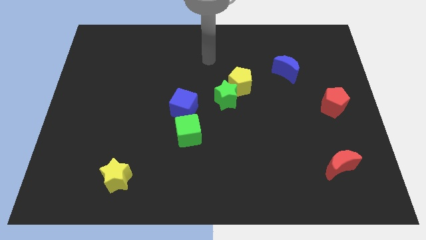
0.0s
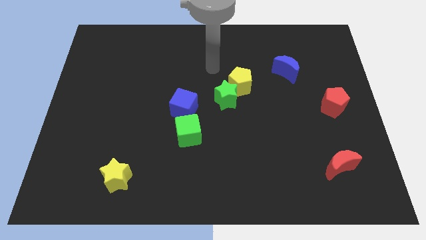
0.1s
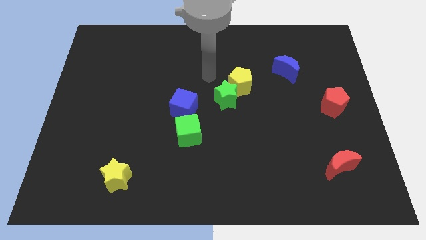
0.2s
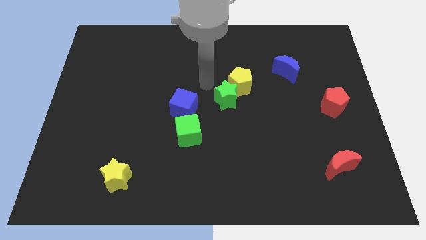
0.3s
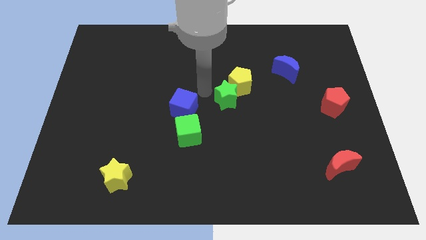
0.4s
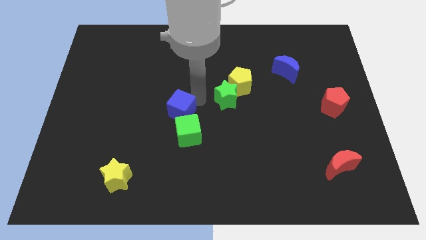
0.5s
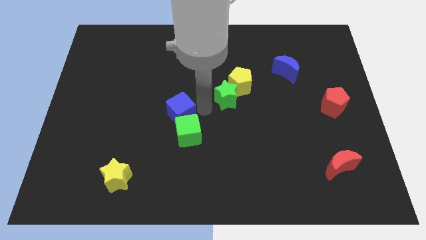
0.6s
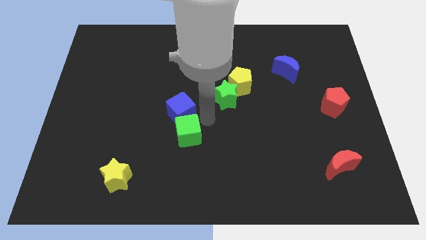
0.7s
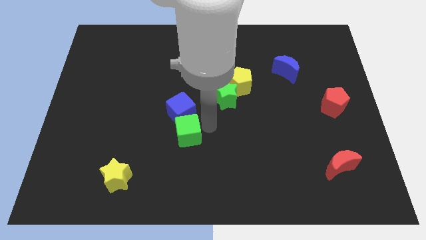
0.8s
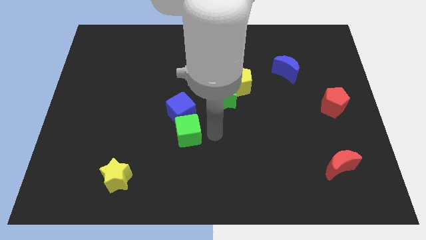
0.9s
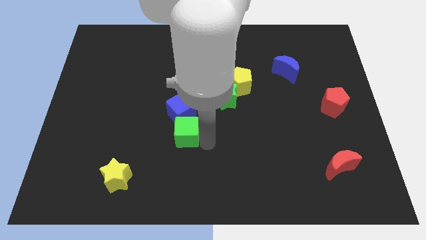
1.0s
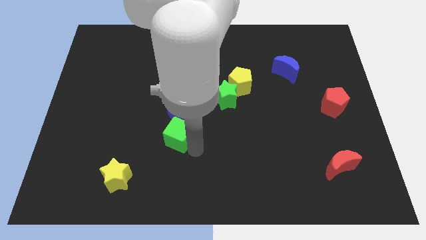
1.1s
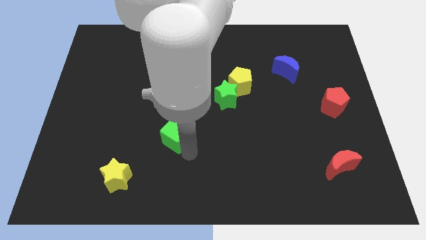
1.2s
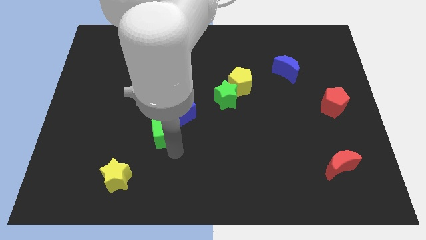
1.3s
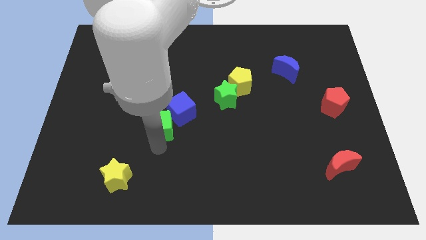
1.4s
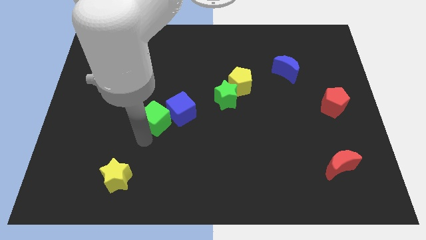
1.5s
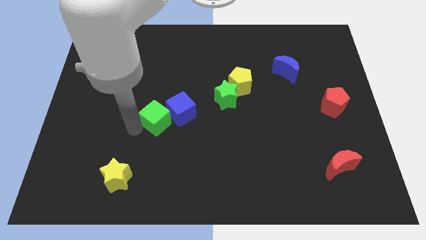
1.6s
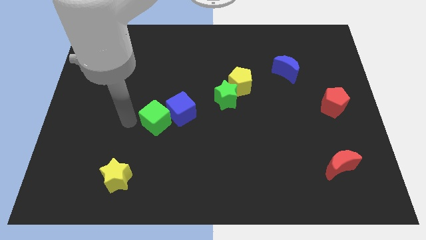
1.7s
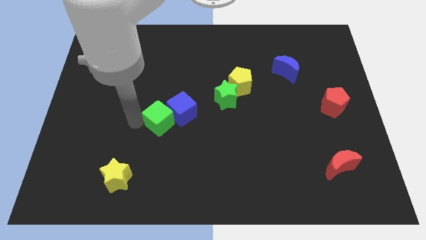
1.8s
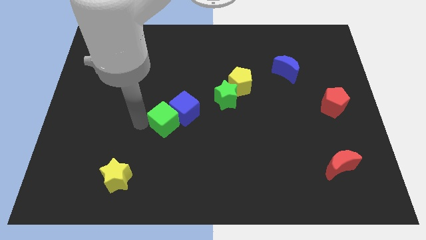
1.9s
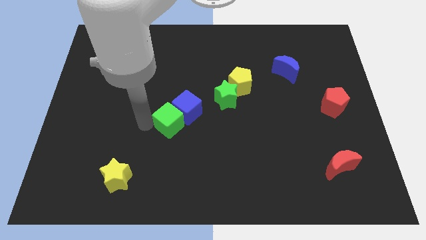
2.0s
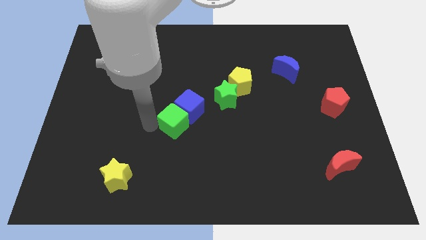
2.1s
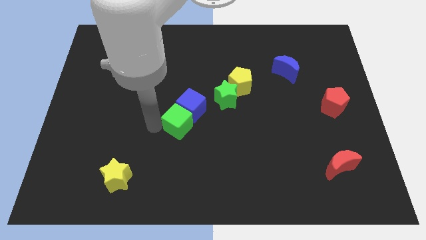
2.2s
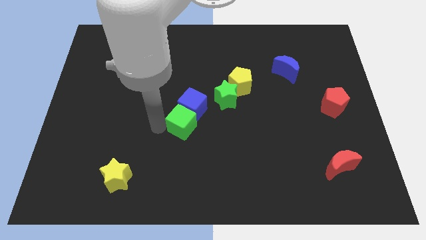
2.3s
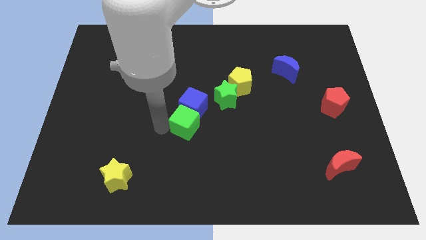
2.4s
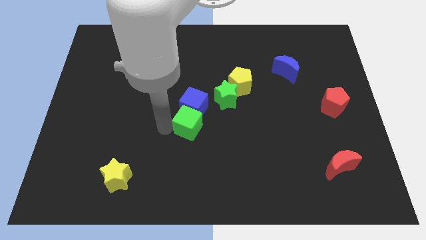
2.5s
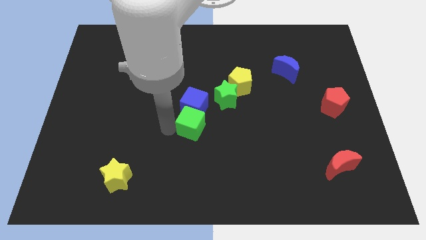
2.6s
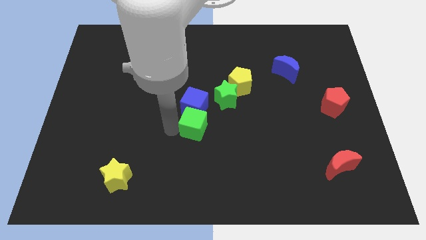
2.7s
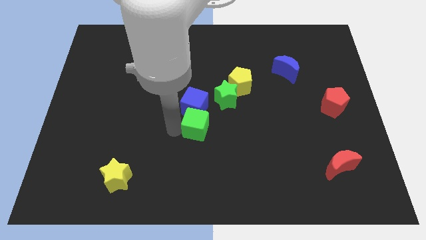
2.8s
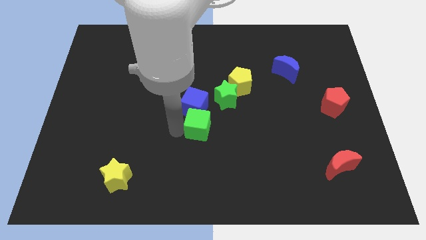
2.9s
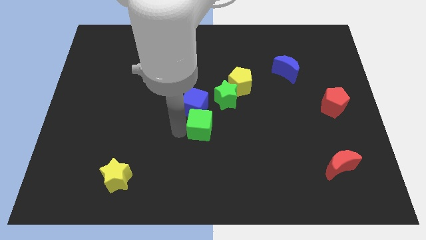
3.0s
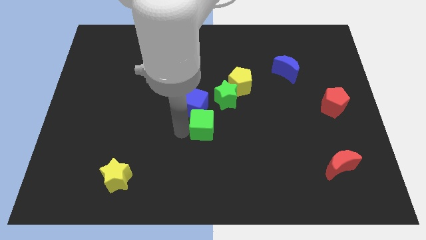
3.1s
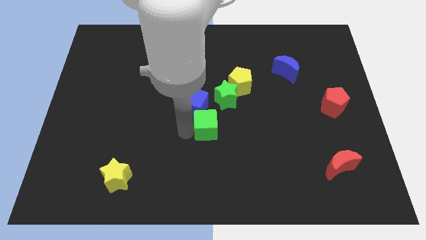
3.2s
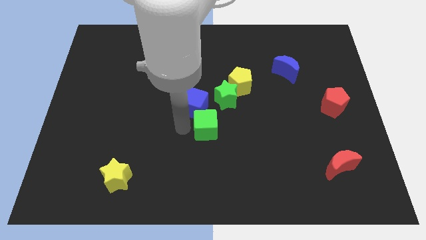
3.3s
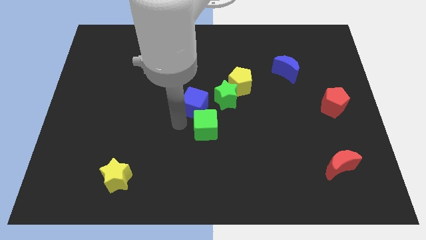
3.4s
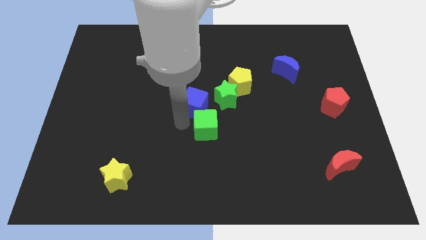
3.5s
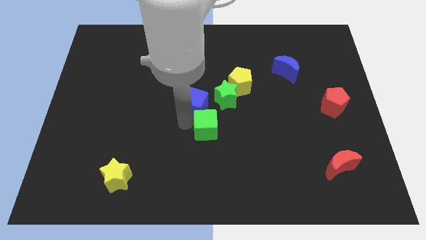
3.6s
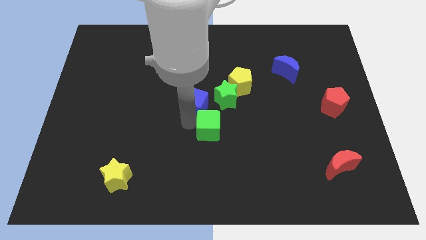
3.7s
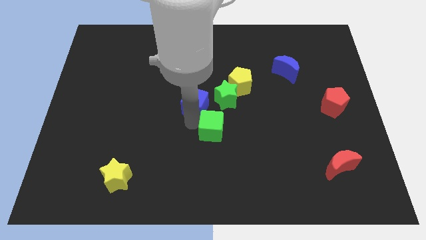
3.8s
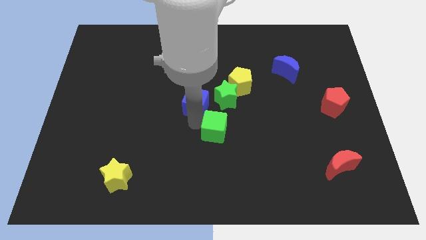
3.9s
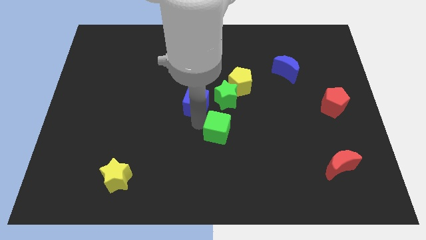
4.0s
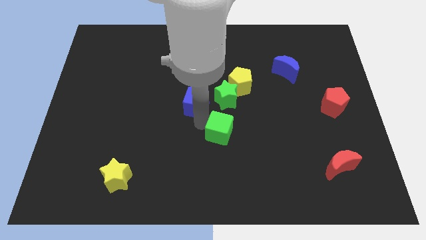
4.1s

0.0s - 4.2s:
move the green cube to the right slightly

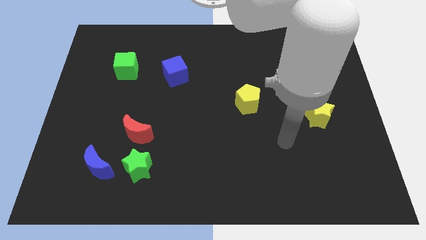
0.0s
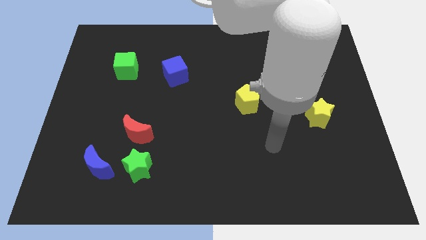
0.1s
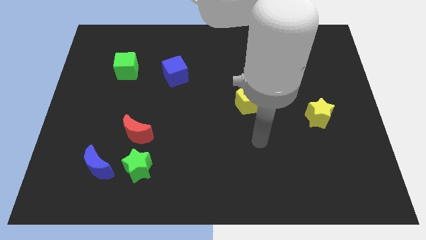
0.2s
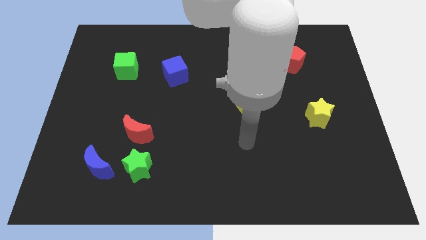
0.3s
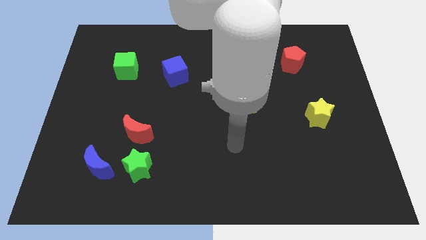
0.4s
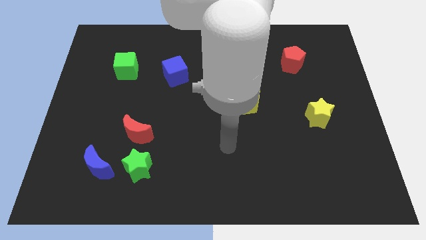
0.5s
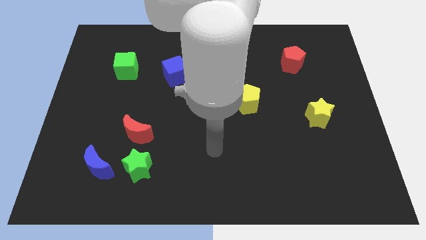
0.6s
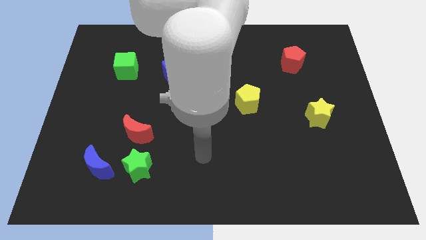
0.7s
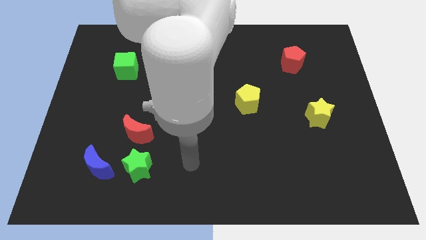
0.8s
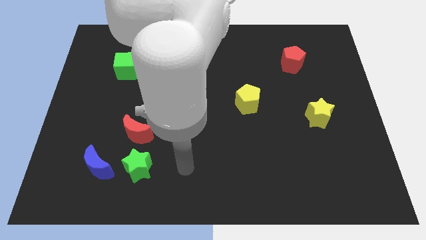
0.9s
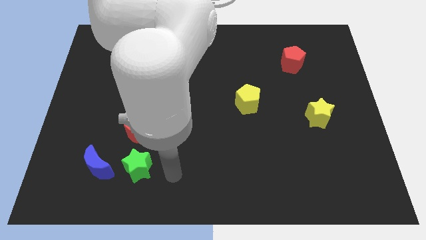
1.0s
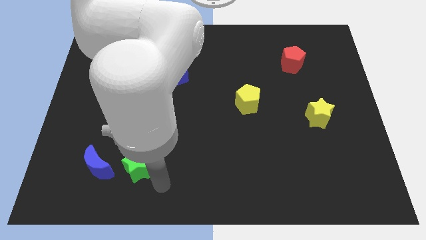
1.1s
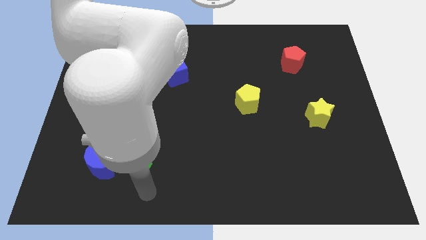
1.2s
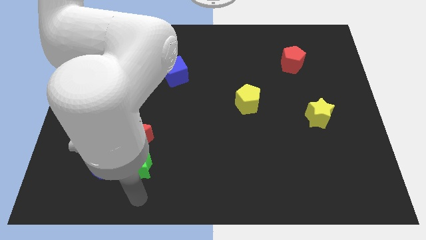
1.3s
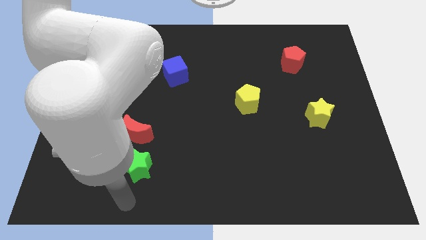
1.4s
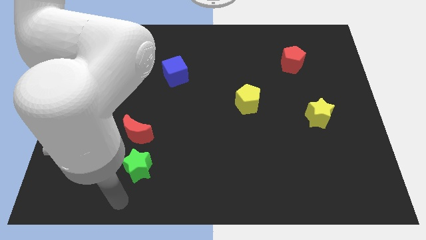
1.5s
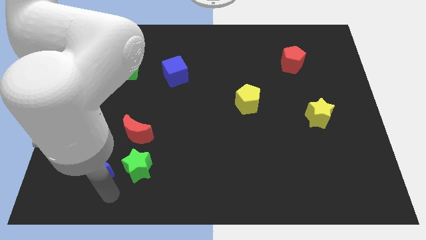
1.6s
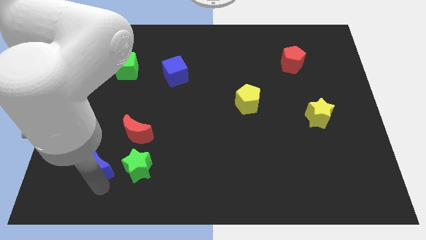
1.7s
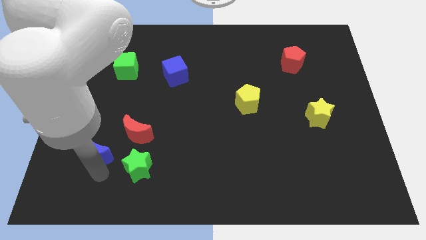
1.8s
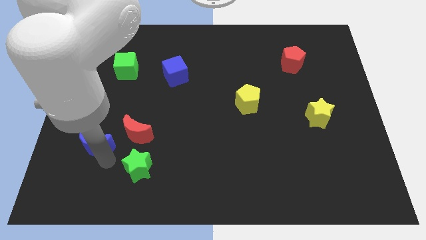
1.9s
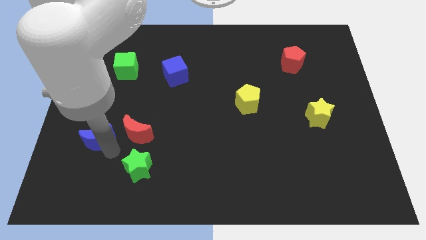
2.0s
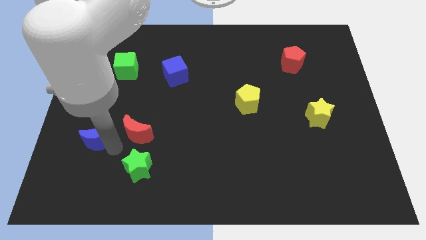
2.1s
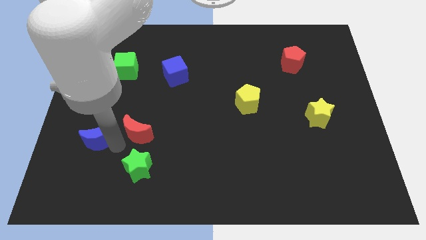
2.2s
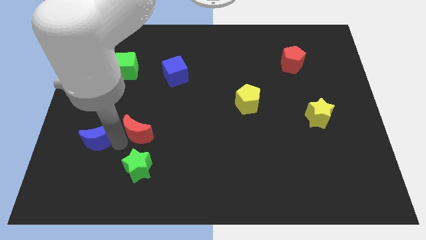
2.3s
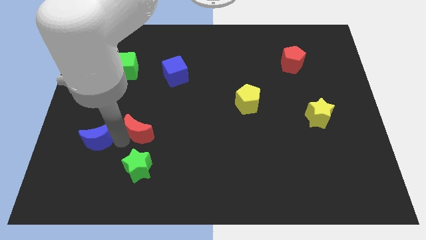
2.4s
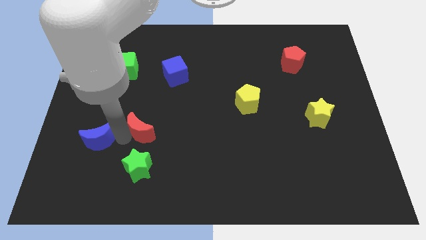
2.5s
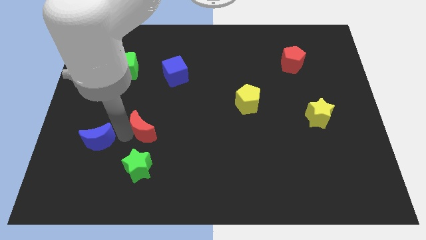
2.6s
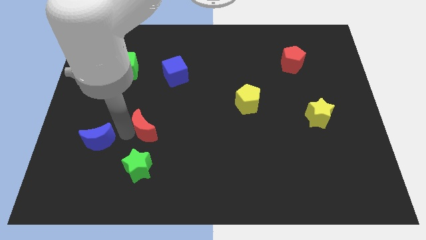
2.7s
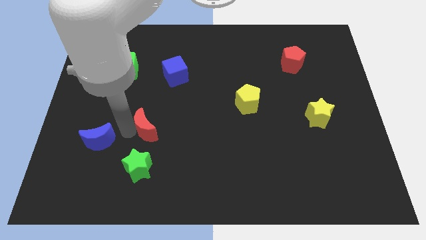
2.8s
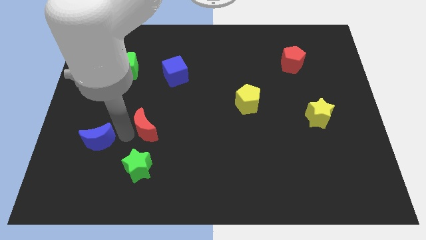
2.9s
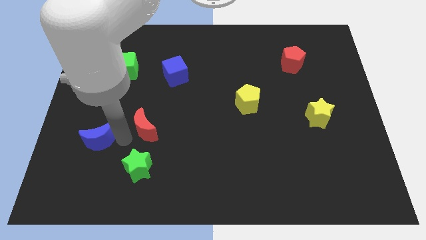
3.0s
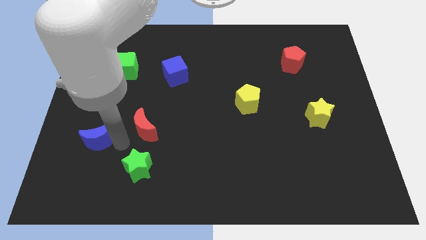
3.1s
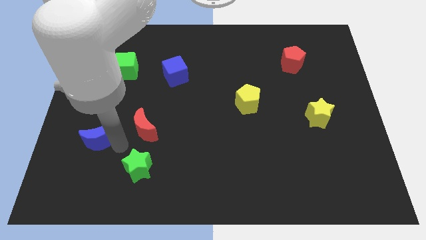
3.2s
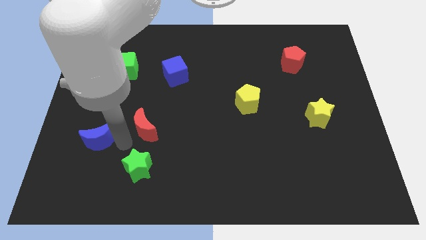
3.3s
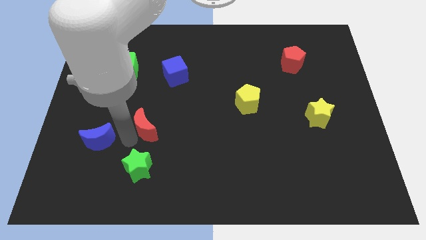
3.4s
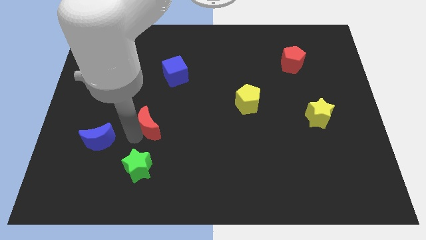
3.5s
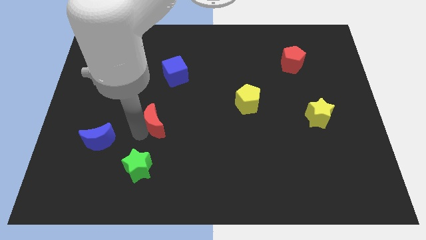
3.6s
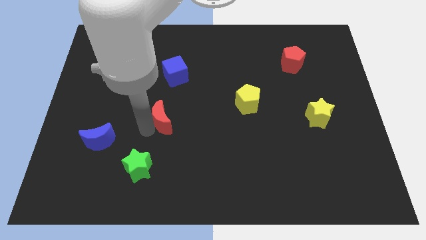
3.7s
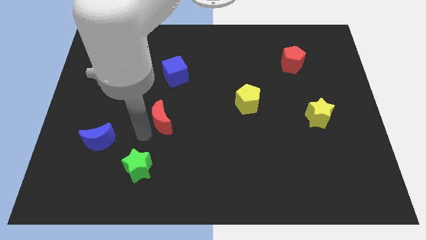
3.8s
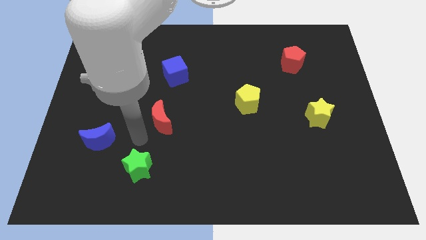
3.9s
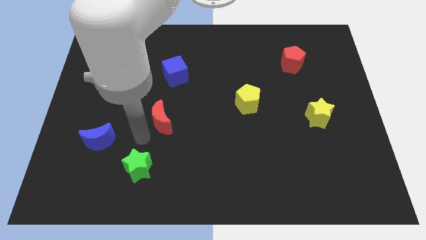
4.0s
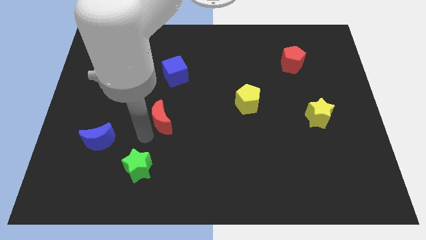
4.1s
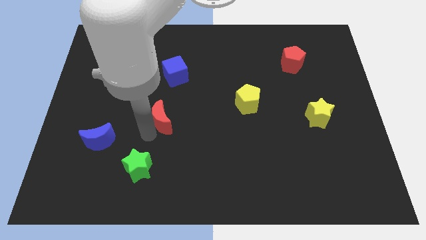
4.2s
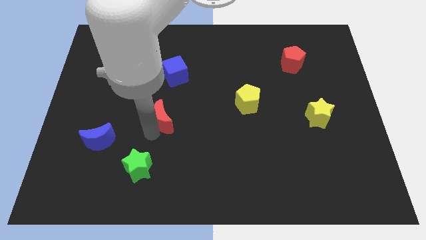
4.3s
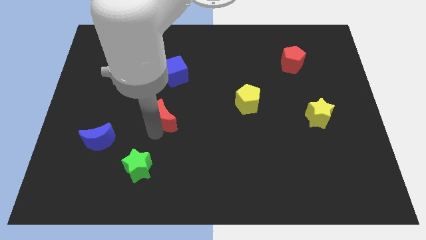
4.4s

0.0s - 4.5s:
slide the red moon a little up and then to the right
